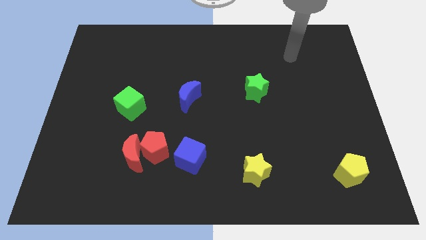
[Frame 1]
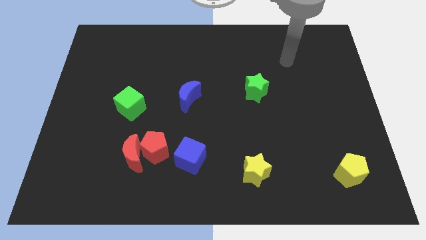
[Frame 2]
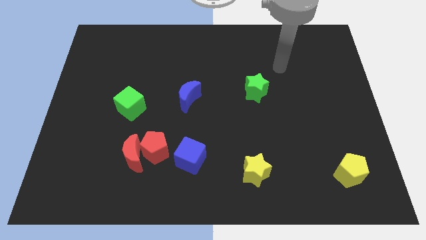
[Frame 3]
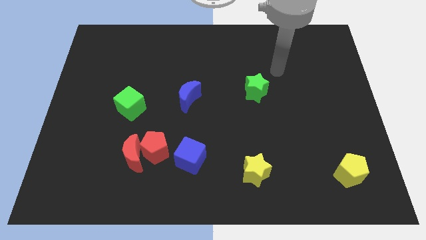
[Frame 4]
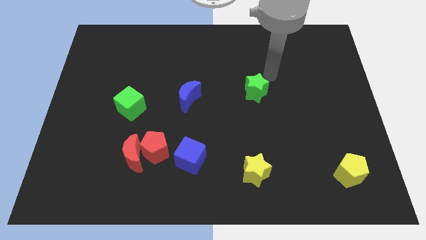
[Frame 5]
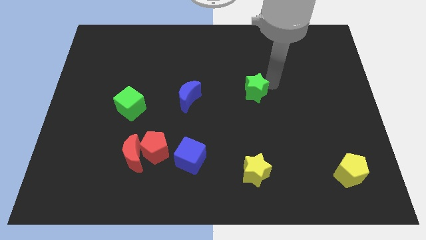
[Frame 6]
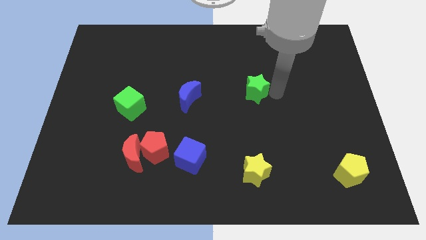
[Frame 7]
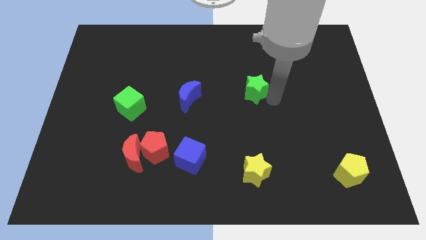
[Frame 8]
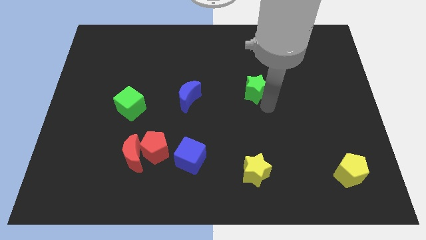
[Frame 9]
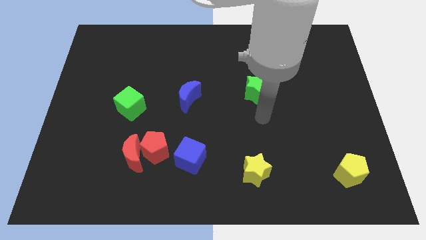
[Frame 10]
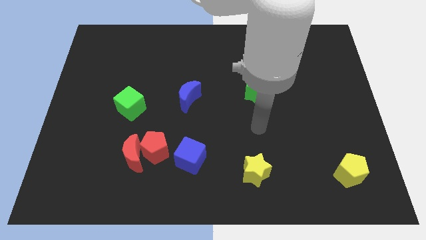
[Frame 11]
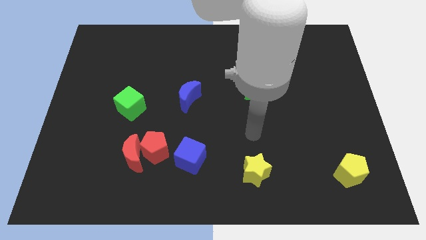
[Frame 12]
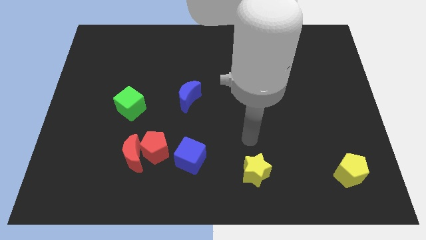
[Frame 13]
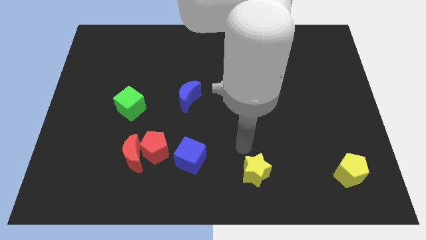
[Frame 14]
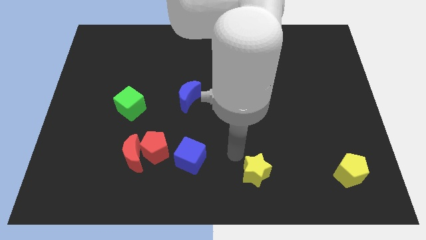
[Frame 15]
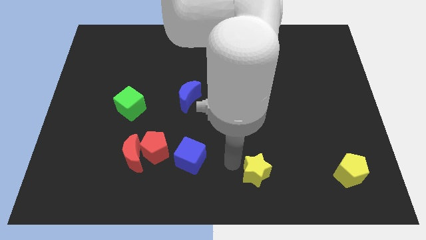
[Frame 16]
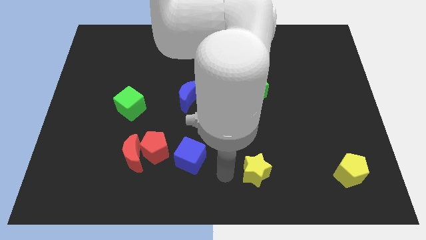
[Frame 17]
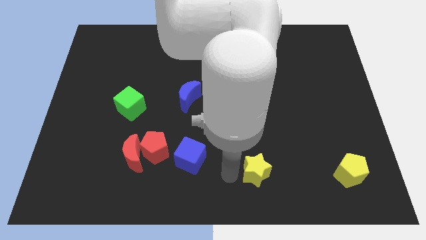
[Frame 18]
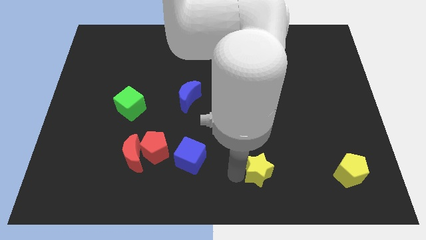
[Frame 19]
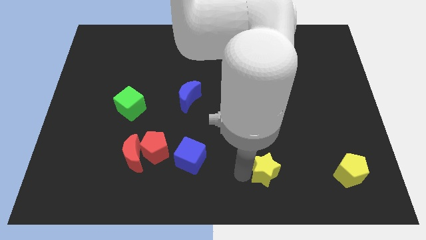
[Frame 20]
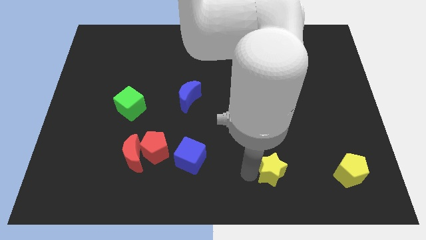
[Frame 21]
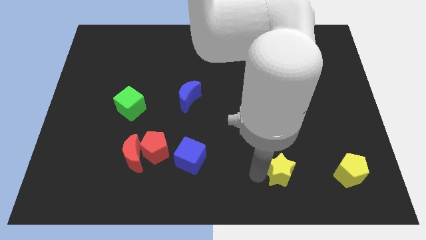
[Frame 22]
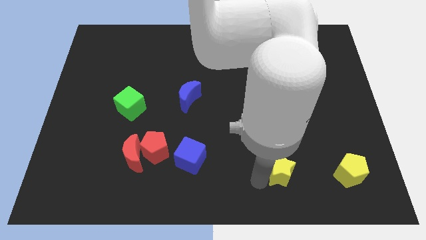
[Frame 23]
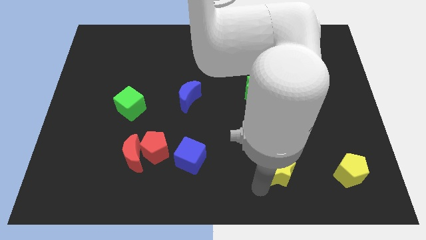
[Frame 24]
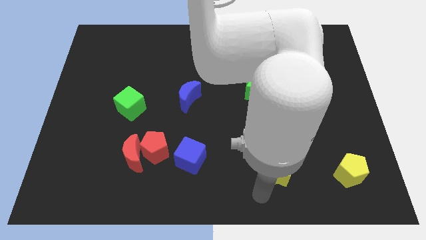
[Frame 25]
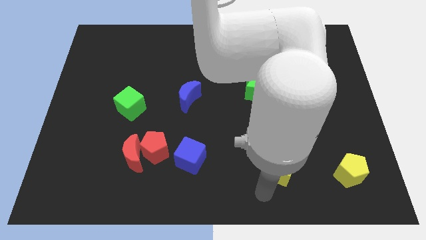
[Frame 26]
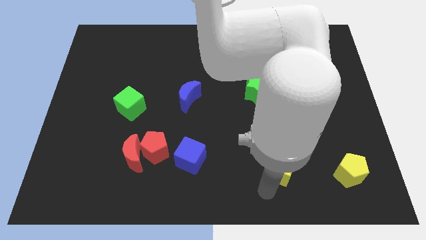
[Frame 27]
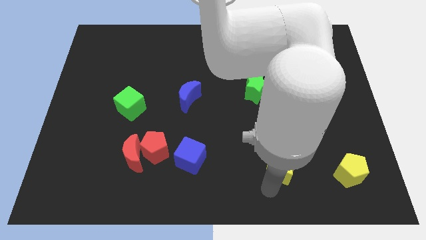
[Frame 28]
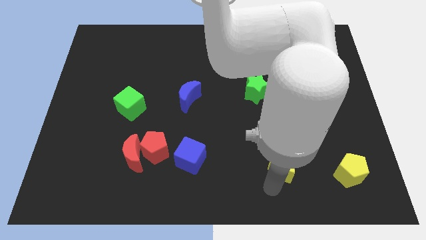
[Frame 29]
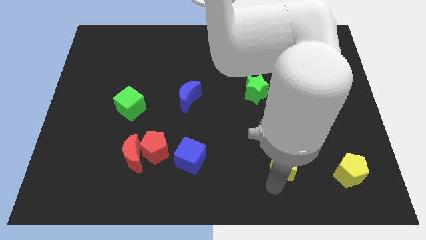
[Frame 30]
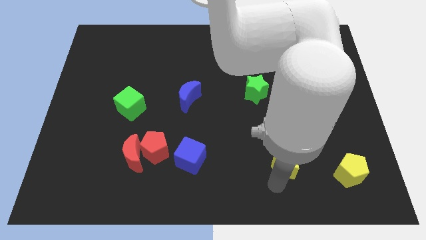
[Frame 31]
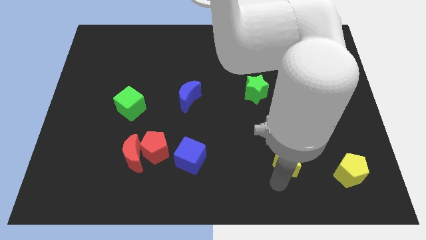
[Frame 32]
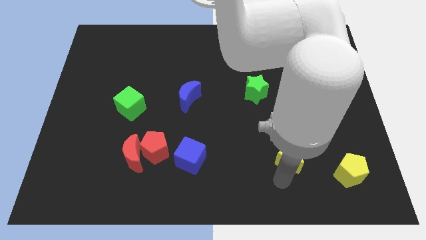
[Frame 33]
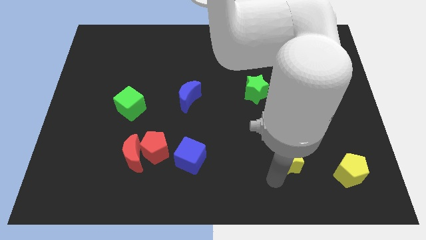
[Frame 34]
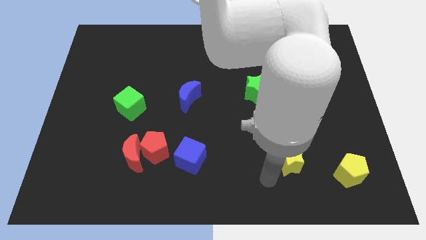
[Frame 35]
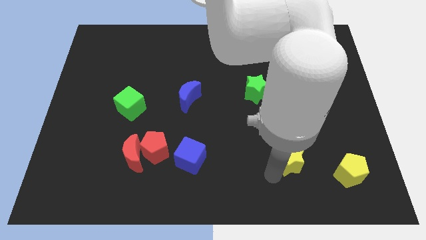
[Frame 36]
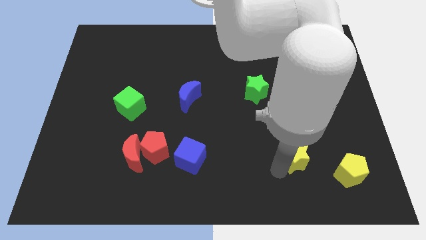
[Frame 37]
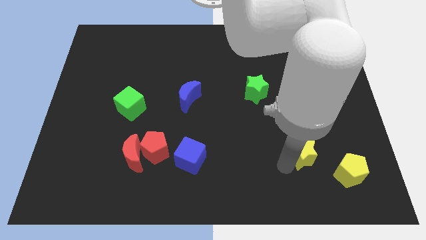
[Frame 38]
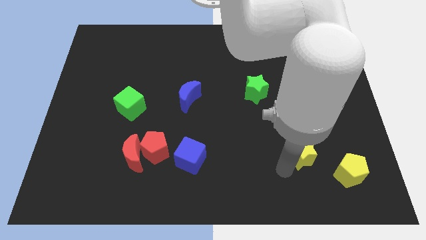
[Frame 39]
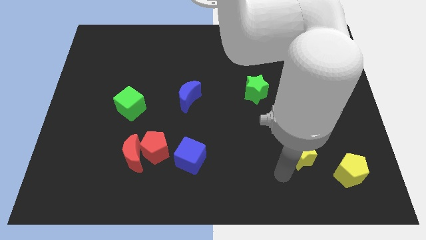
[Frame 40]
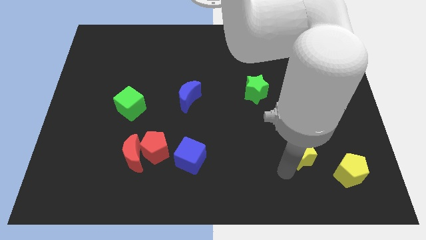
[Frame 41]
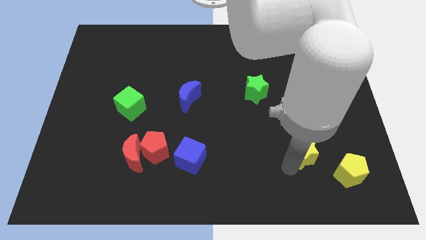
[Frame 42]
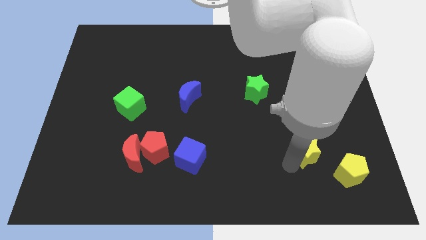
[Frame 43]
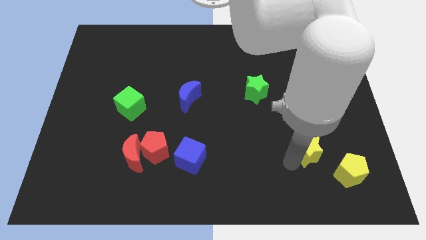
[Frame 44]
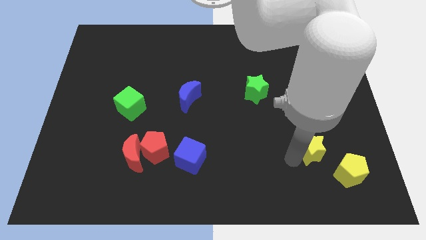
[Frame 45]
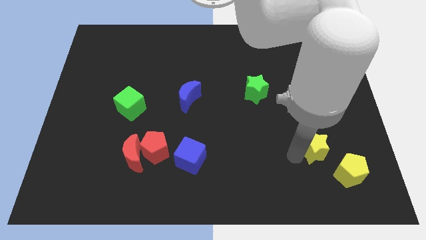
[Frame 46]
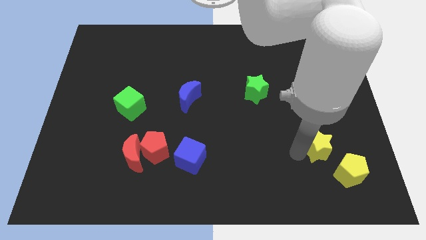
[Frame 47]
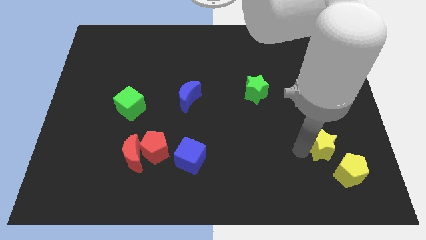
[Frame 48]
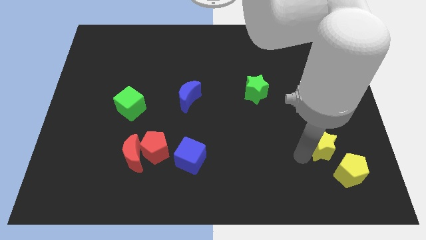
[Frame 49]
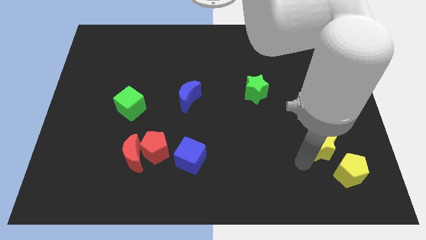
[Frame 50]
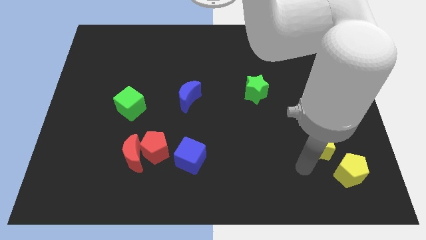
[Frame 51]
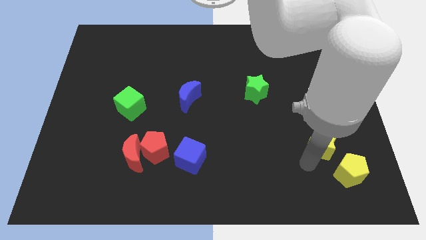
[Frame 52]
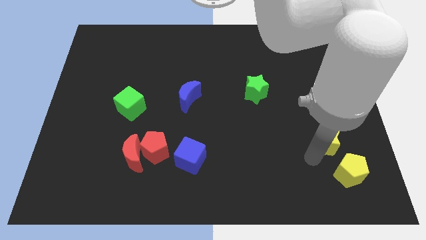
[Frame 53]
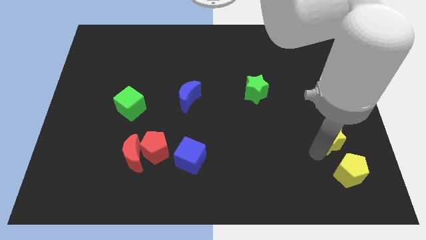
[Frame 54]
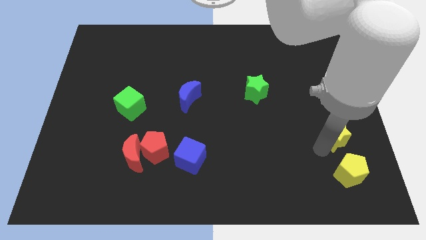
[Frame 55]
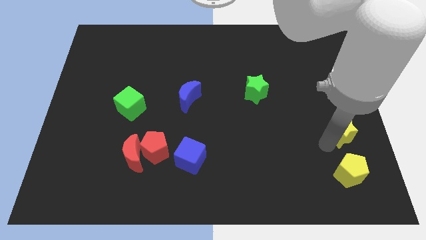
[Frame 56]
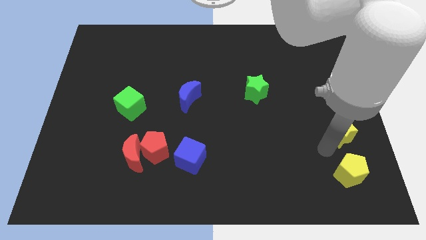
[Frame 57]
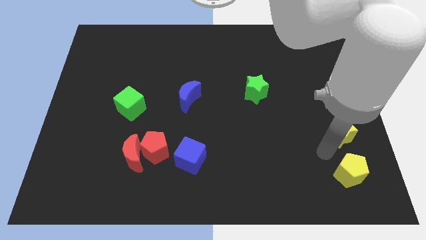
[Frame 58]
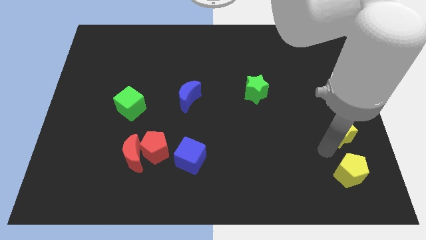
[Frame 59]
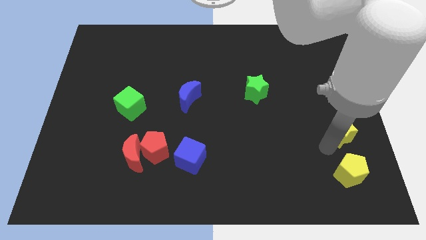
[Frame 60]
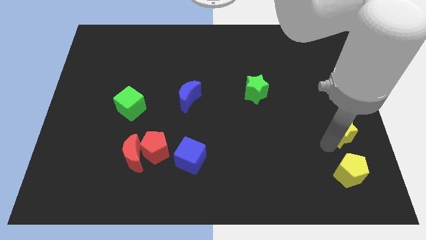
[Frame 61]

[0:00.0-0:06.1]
push the yellow star to the right side of the board
